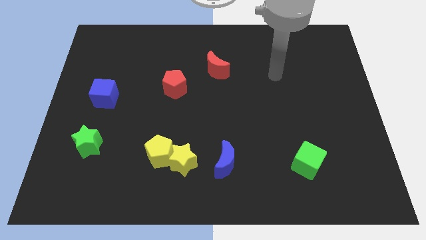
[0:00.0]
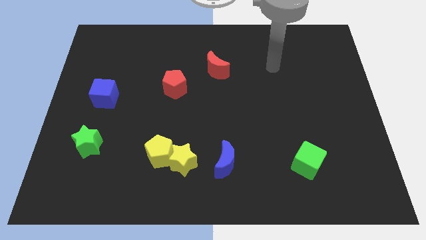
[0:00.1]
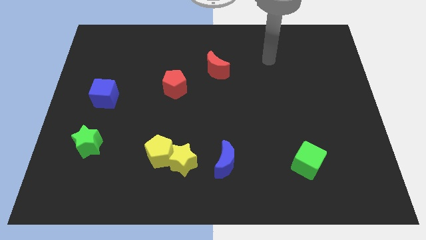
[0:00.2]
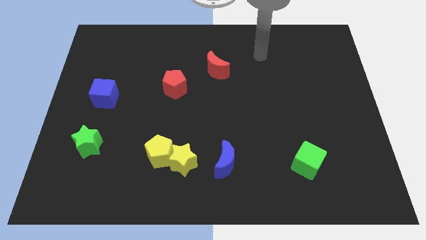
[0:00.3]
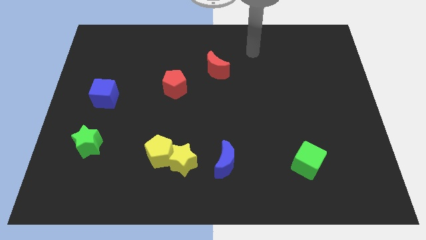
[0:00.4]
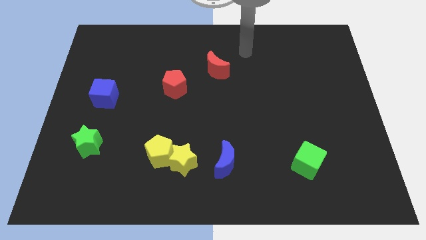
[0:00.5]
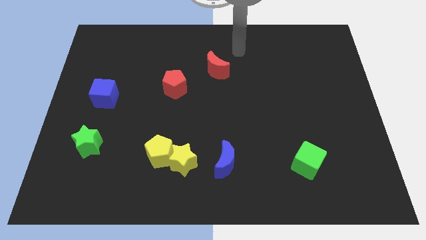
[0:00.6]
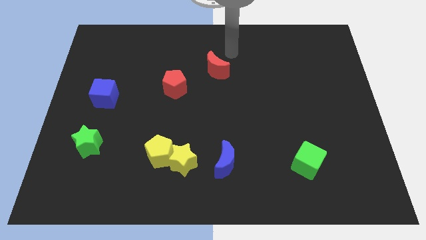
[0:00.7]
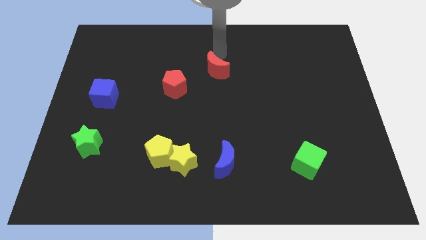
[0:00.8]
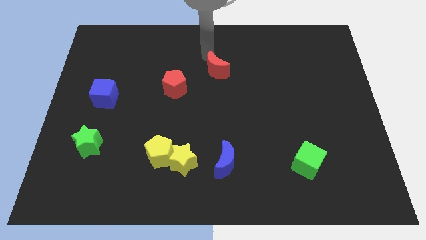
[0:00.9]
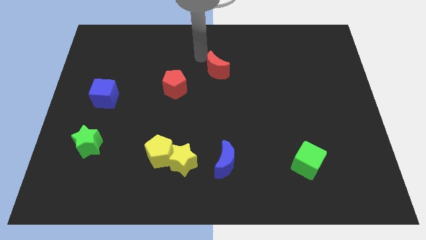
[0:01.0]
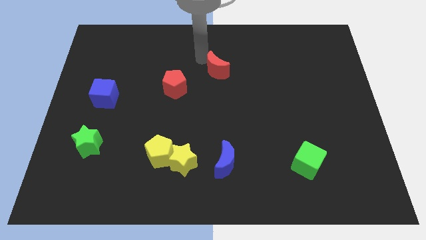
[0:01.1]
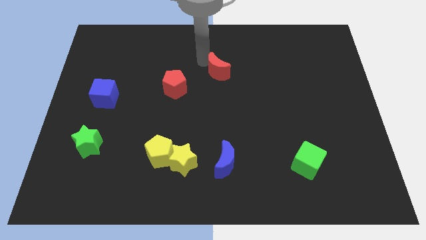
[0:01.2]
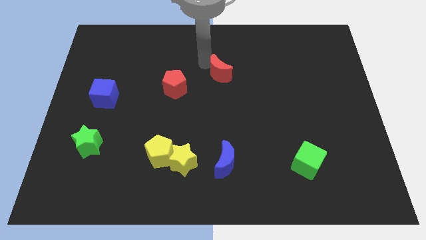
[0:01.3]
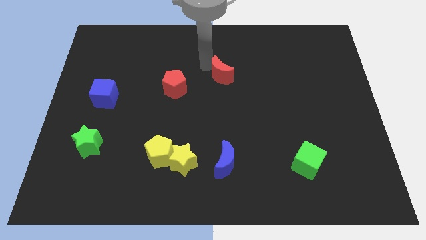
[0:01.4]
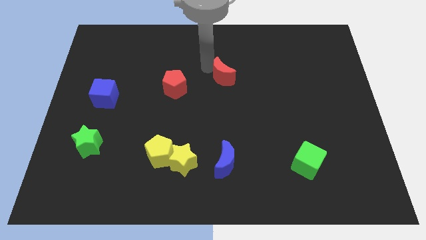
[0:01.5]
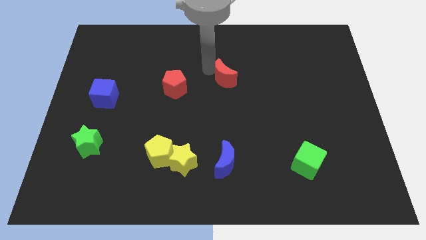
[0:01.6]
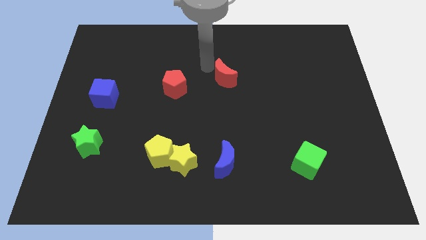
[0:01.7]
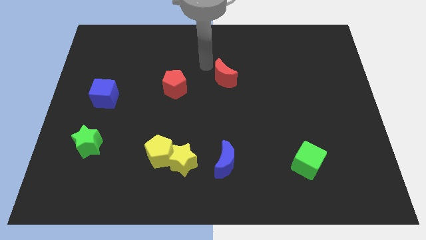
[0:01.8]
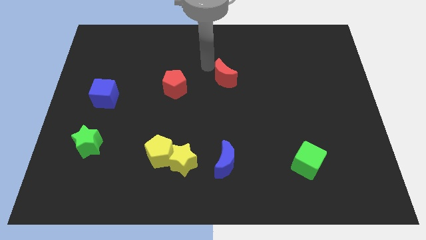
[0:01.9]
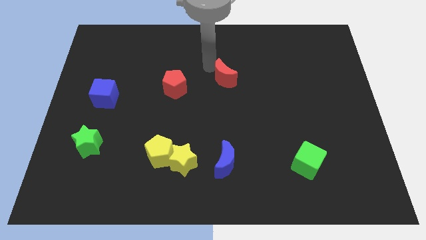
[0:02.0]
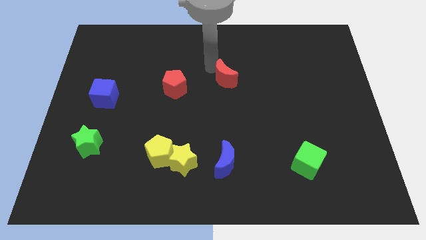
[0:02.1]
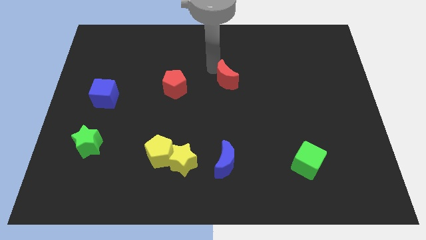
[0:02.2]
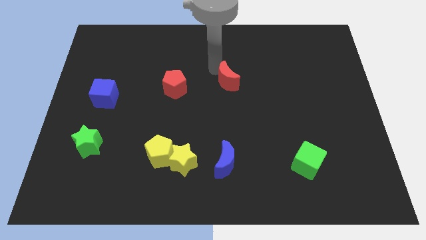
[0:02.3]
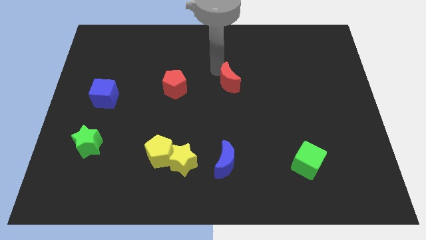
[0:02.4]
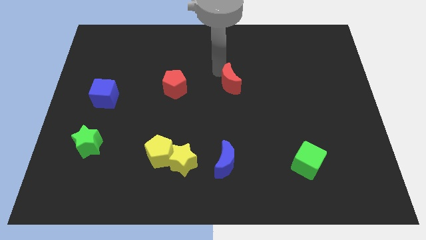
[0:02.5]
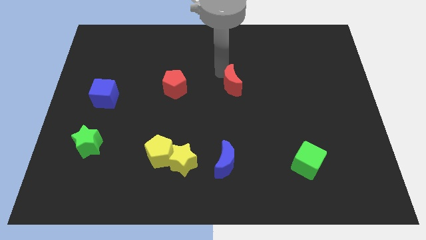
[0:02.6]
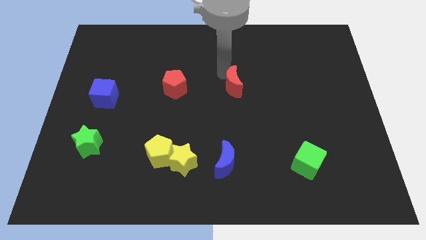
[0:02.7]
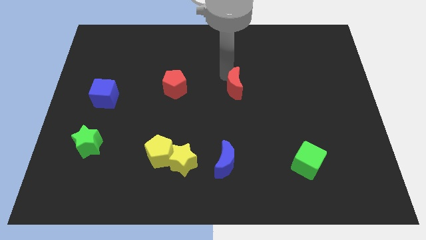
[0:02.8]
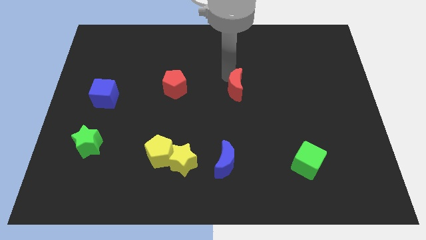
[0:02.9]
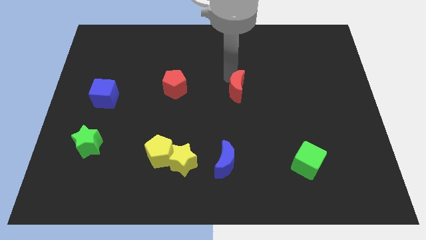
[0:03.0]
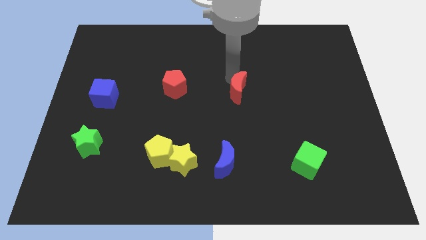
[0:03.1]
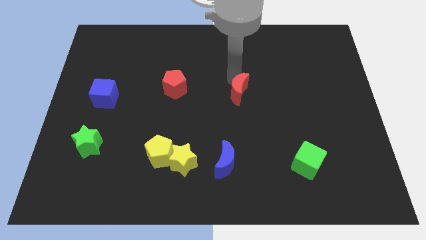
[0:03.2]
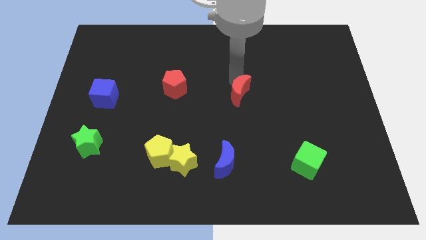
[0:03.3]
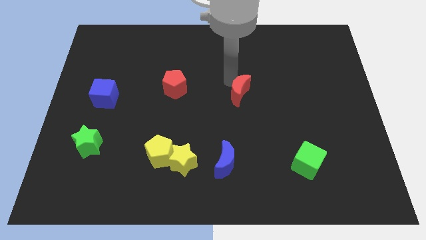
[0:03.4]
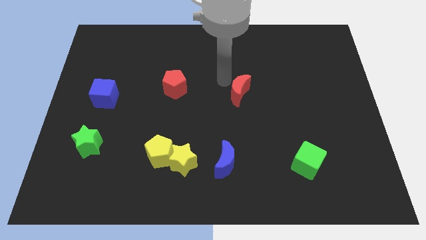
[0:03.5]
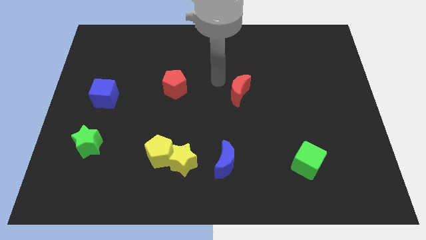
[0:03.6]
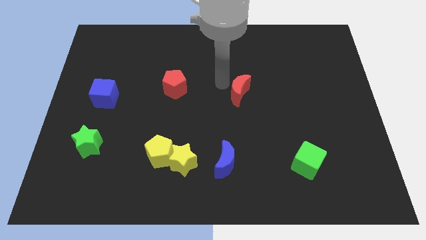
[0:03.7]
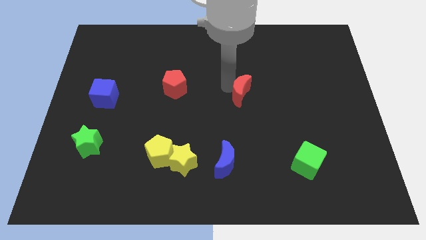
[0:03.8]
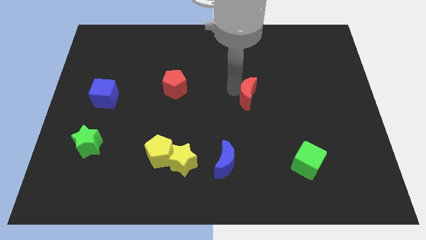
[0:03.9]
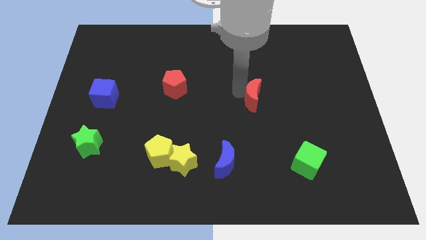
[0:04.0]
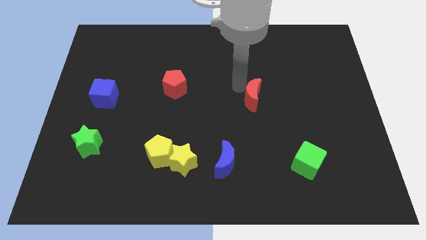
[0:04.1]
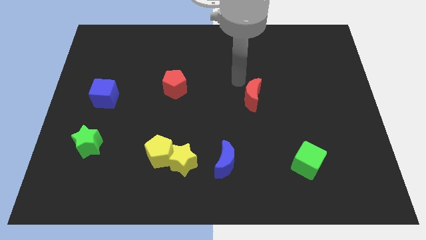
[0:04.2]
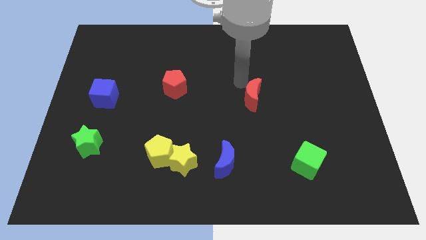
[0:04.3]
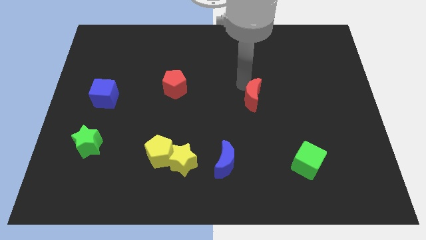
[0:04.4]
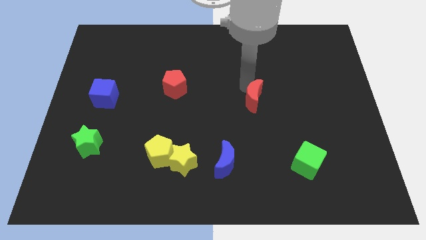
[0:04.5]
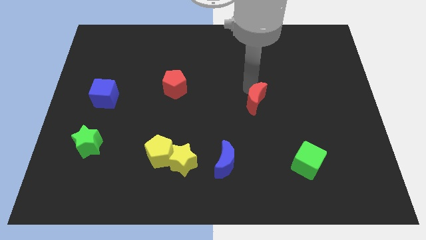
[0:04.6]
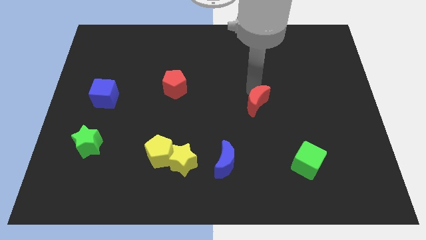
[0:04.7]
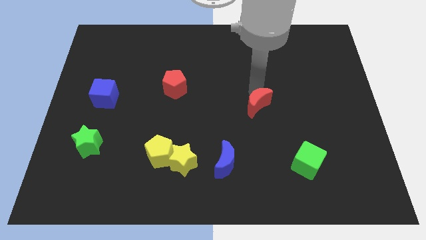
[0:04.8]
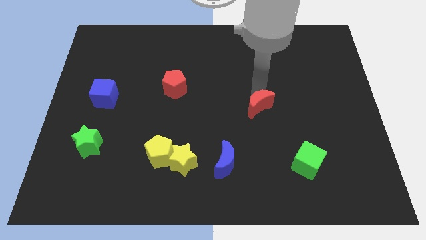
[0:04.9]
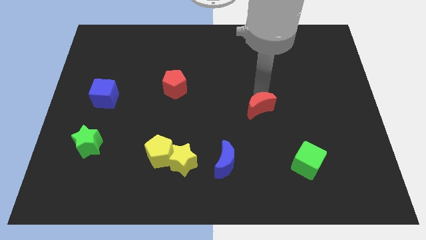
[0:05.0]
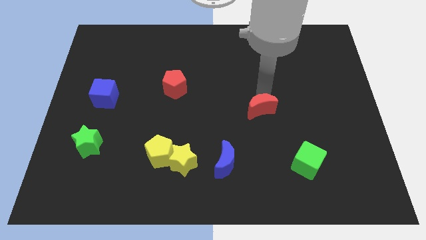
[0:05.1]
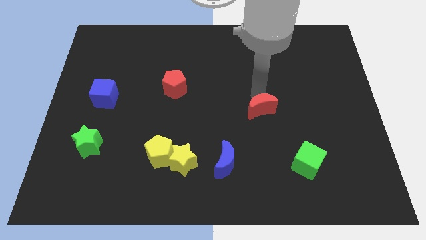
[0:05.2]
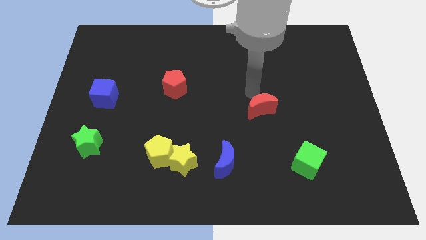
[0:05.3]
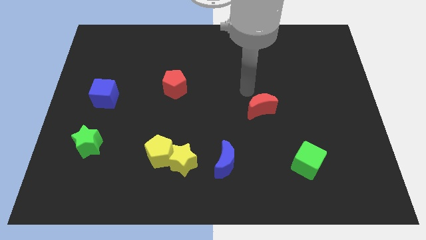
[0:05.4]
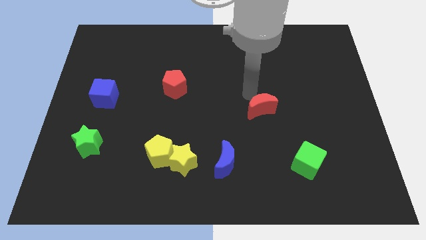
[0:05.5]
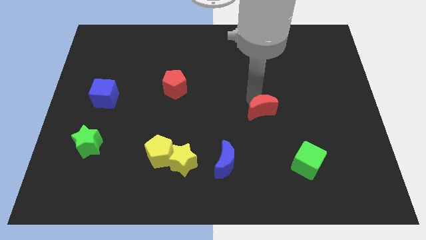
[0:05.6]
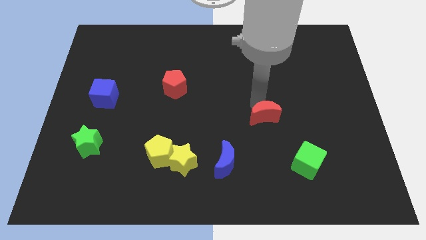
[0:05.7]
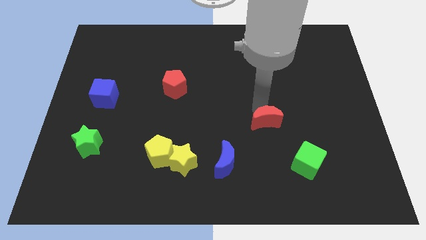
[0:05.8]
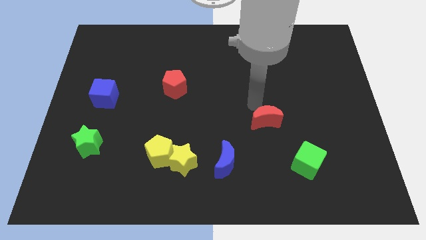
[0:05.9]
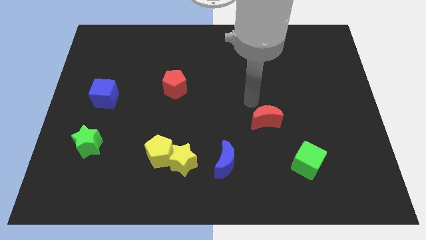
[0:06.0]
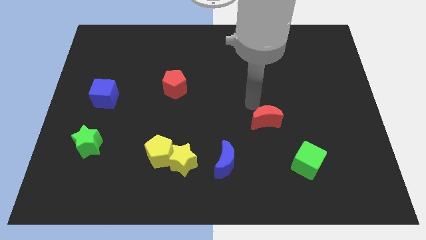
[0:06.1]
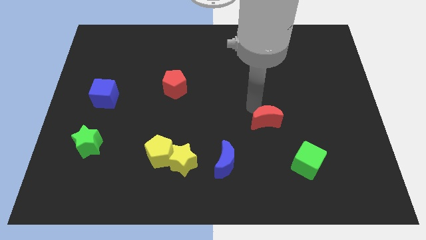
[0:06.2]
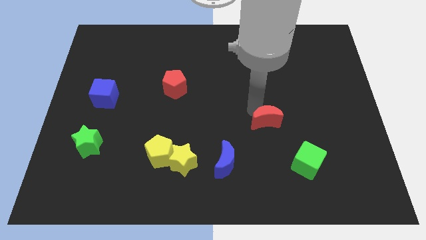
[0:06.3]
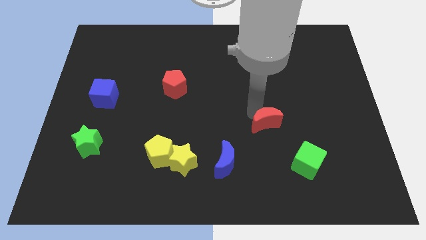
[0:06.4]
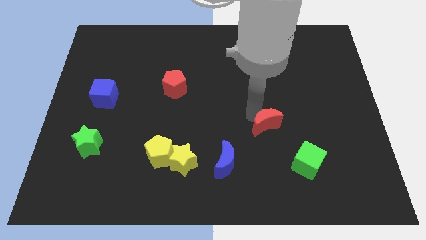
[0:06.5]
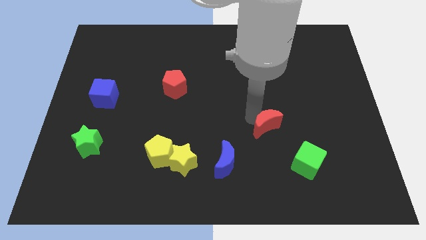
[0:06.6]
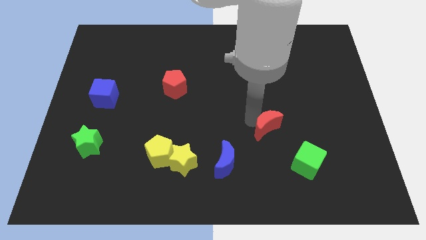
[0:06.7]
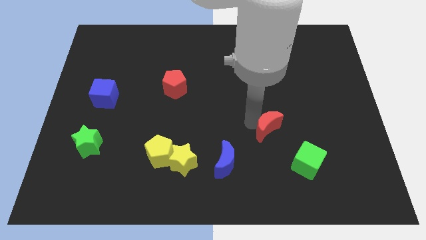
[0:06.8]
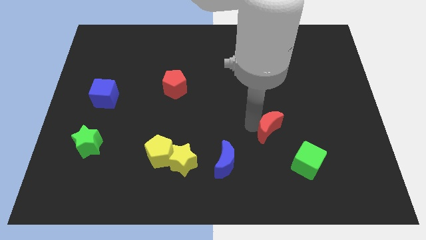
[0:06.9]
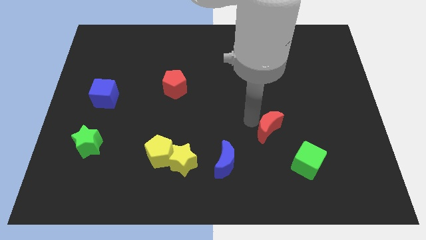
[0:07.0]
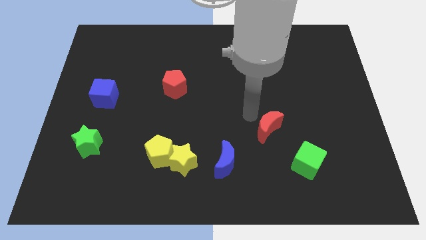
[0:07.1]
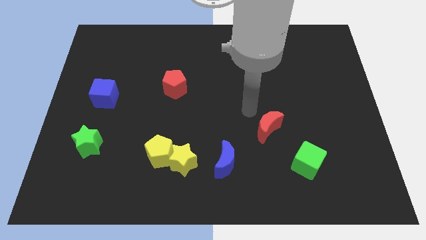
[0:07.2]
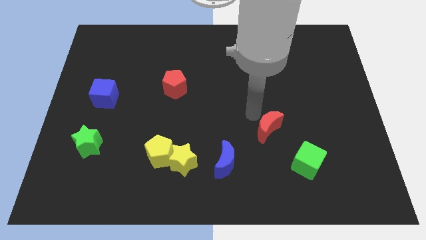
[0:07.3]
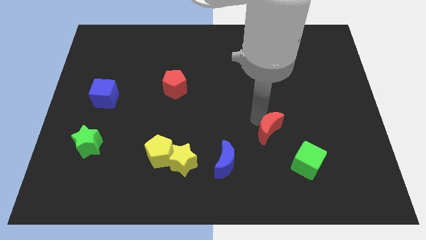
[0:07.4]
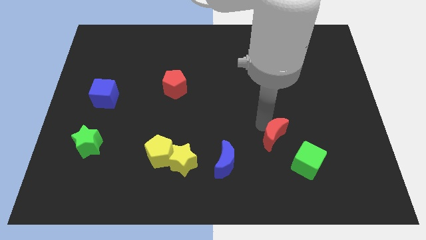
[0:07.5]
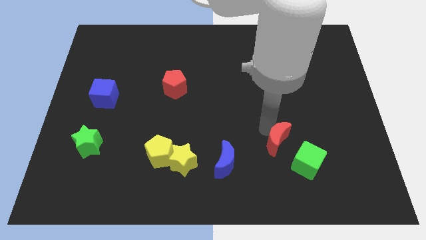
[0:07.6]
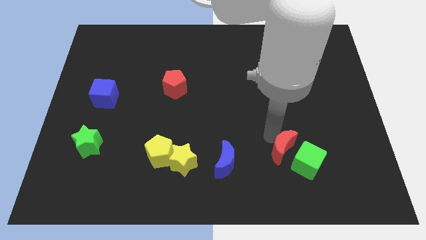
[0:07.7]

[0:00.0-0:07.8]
move the red moon to the green cube
